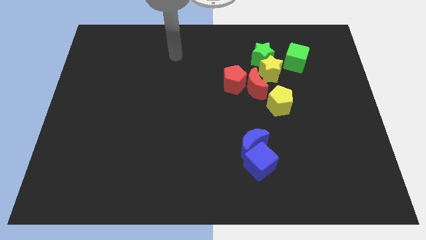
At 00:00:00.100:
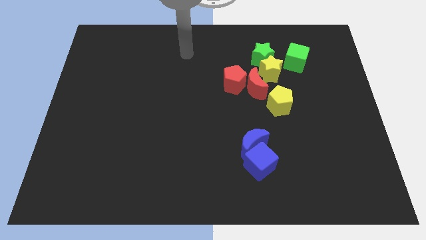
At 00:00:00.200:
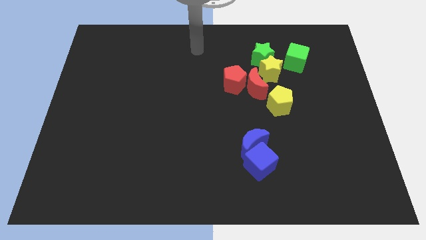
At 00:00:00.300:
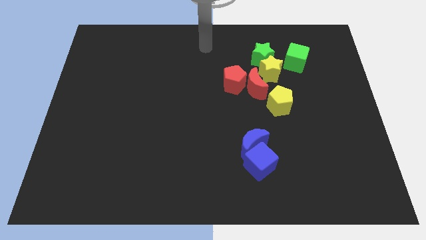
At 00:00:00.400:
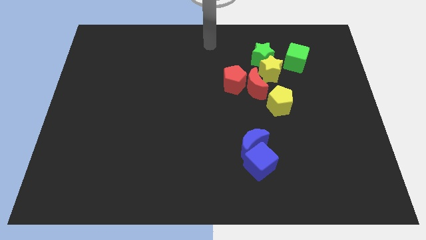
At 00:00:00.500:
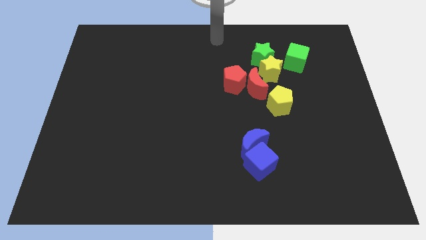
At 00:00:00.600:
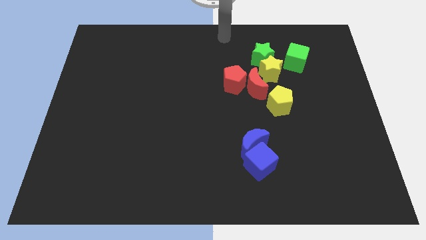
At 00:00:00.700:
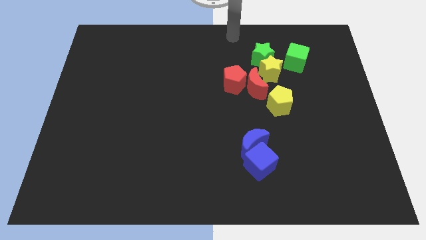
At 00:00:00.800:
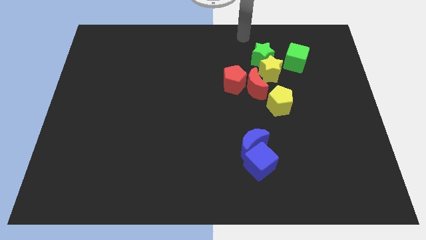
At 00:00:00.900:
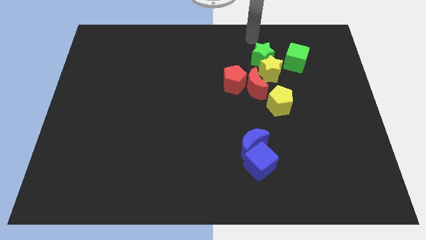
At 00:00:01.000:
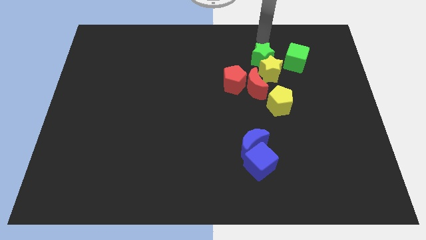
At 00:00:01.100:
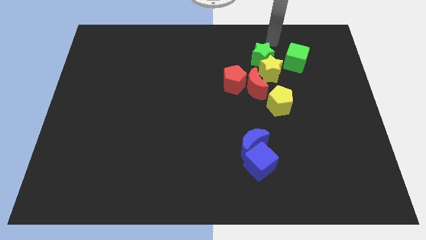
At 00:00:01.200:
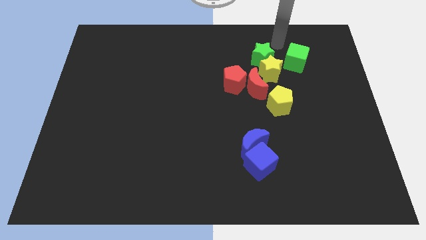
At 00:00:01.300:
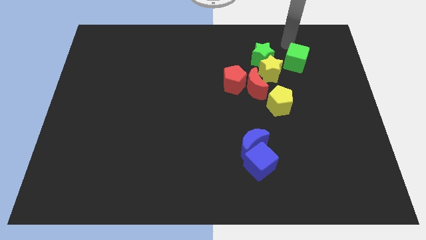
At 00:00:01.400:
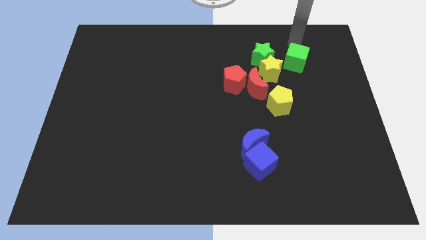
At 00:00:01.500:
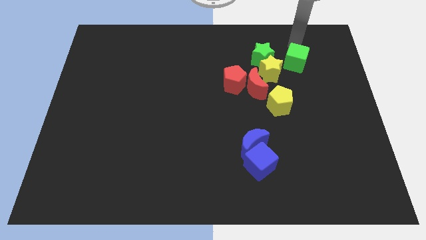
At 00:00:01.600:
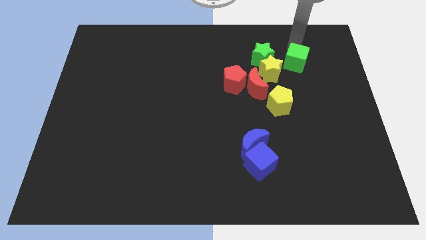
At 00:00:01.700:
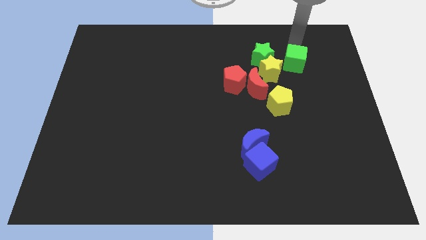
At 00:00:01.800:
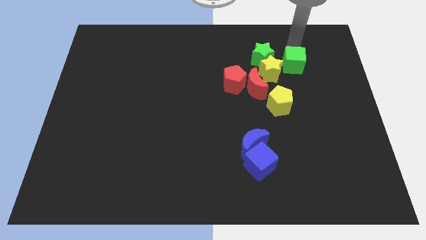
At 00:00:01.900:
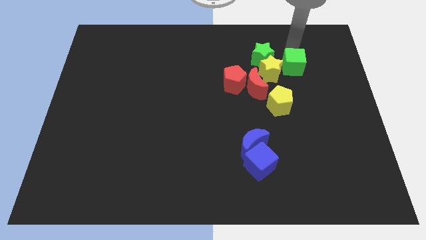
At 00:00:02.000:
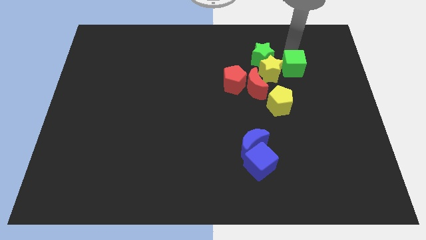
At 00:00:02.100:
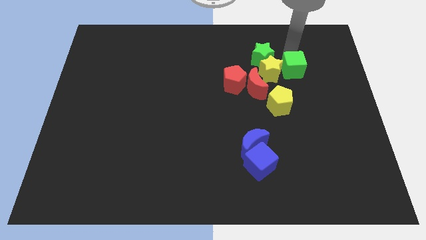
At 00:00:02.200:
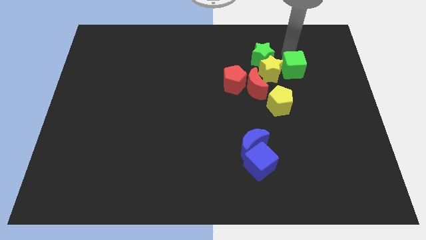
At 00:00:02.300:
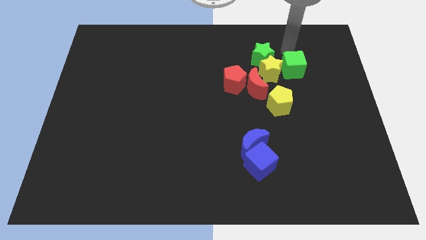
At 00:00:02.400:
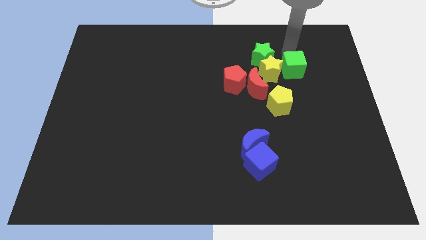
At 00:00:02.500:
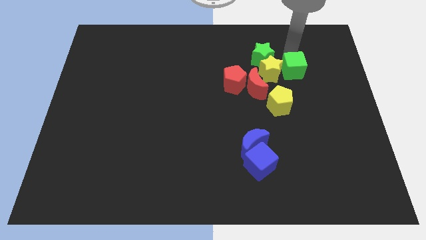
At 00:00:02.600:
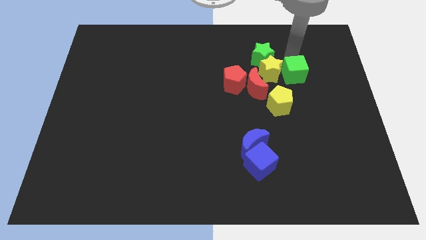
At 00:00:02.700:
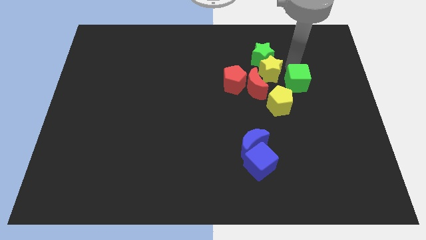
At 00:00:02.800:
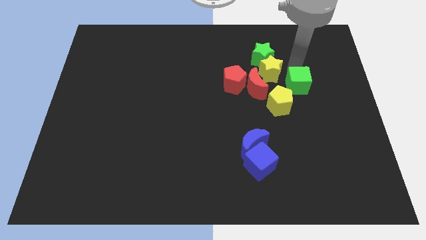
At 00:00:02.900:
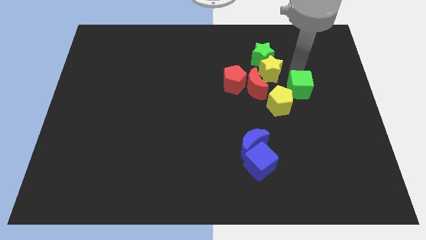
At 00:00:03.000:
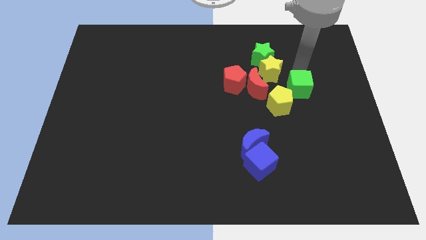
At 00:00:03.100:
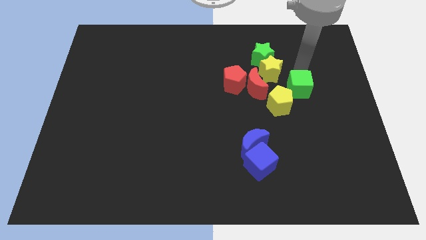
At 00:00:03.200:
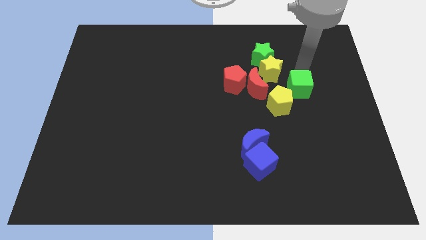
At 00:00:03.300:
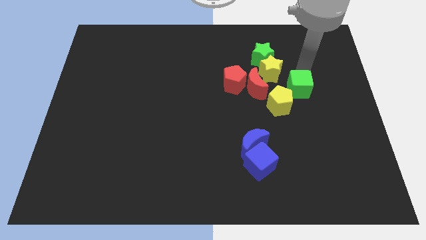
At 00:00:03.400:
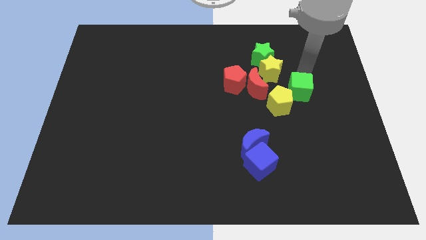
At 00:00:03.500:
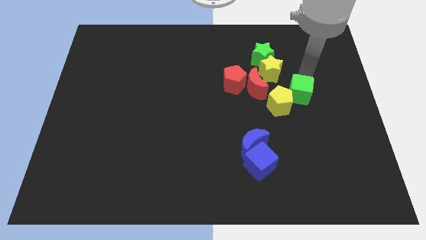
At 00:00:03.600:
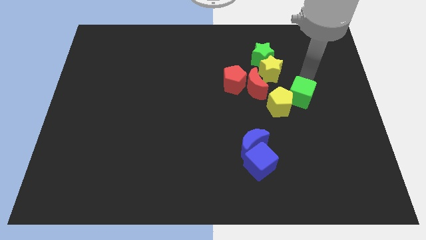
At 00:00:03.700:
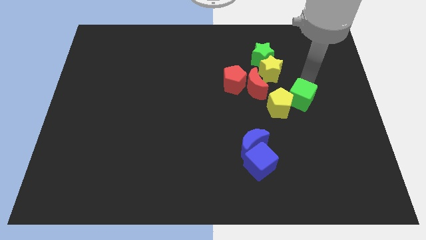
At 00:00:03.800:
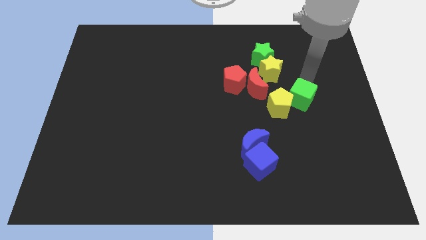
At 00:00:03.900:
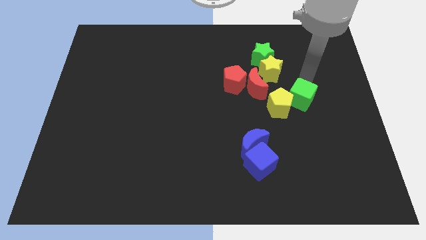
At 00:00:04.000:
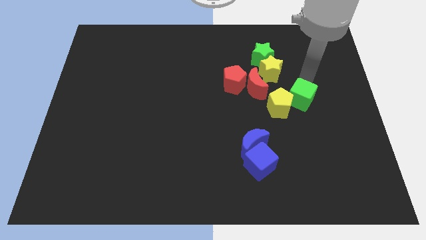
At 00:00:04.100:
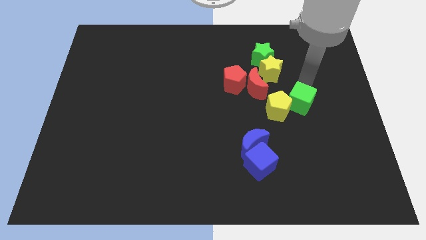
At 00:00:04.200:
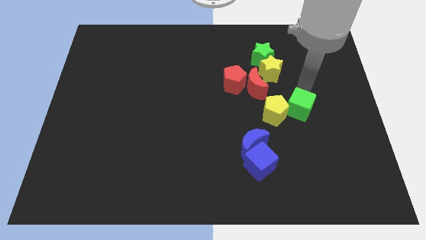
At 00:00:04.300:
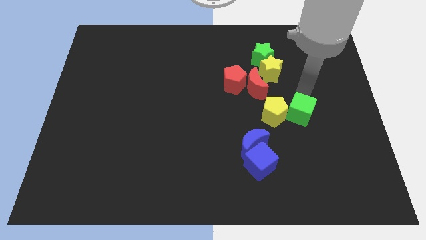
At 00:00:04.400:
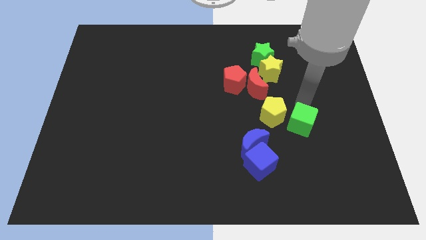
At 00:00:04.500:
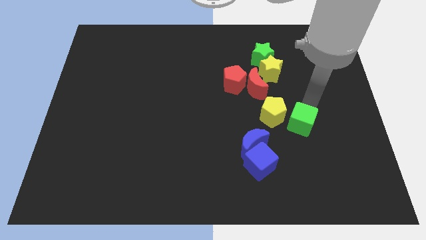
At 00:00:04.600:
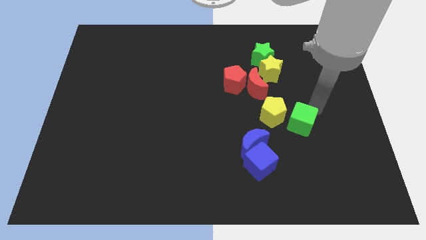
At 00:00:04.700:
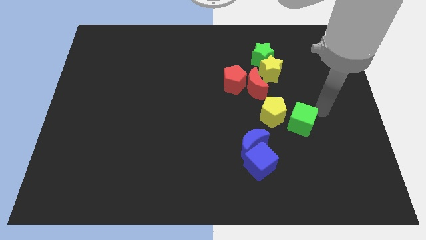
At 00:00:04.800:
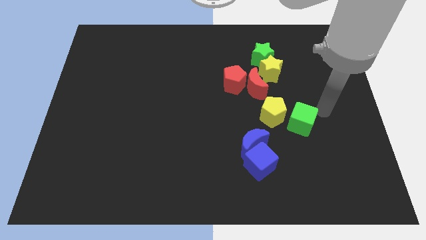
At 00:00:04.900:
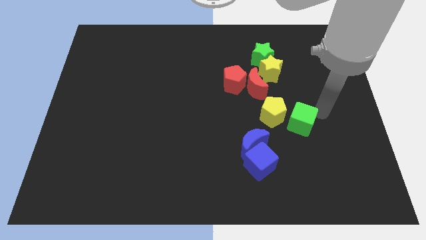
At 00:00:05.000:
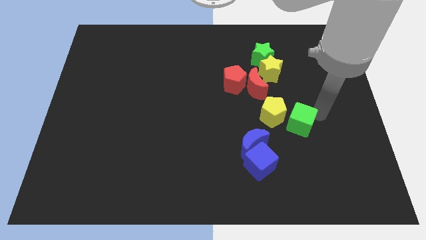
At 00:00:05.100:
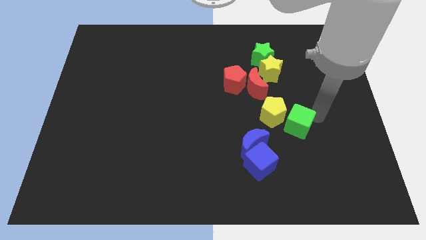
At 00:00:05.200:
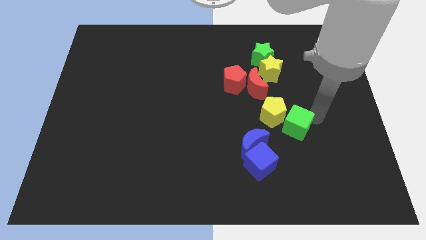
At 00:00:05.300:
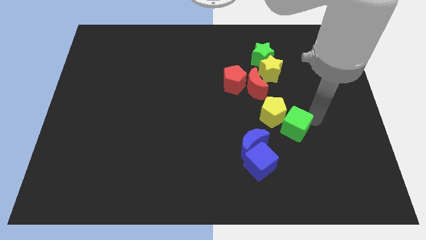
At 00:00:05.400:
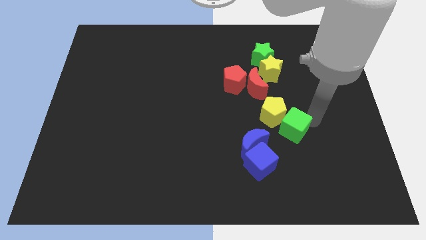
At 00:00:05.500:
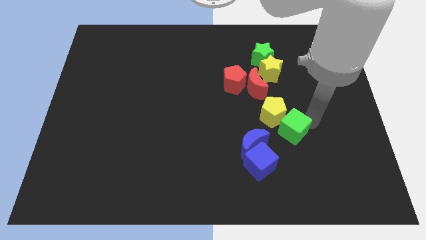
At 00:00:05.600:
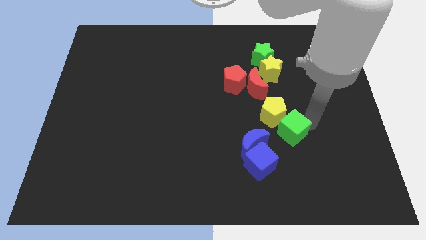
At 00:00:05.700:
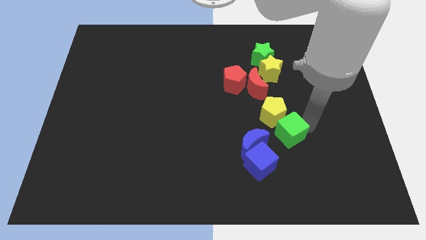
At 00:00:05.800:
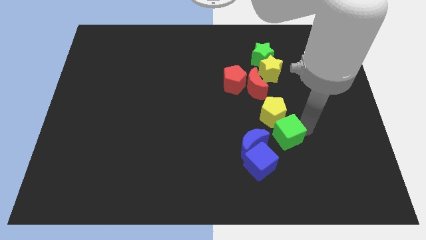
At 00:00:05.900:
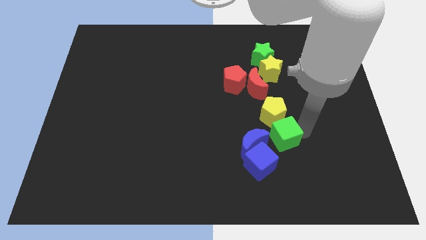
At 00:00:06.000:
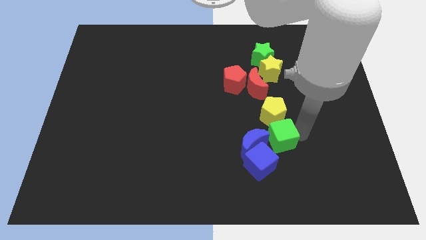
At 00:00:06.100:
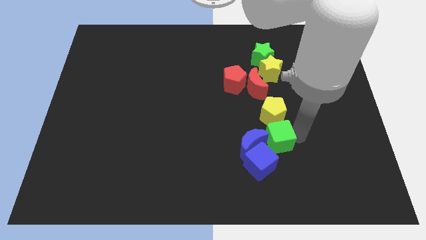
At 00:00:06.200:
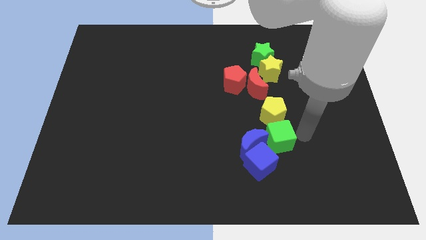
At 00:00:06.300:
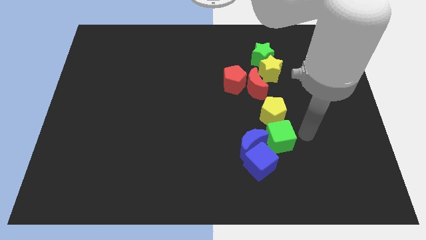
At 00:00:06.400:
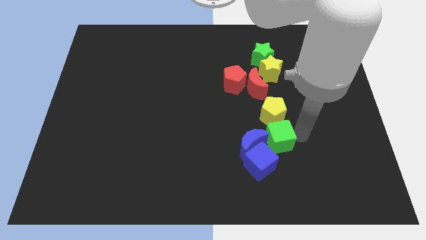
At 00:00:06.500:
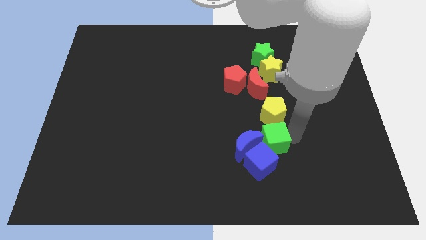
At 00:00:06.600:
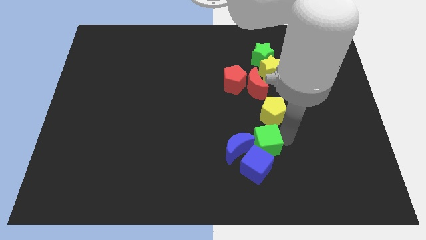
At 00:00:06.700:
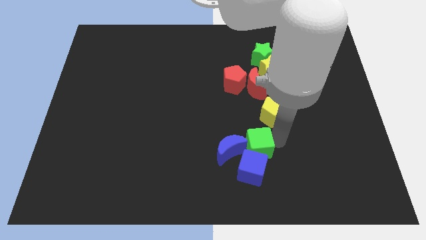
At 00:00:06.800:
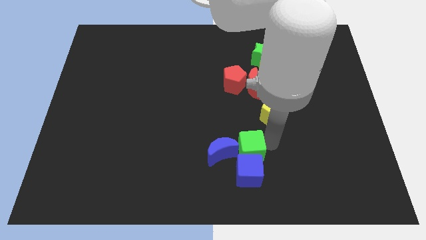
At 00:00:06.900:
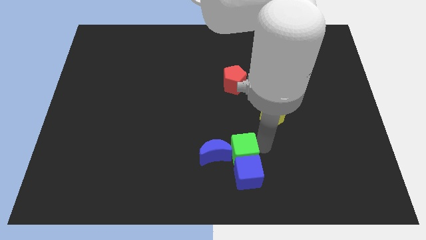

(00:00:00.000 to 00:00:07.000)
put the green cube towards the blue moon

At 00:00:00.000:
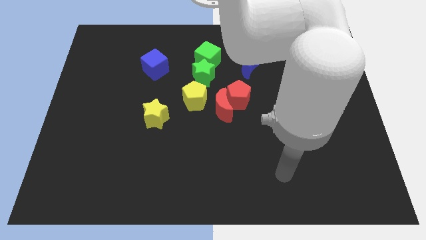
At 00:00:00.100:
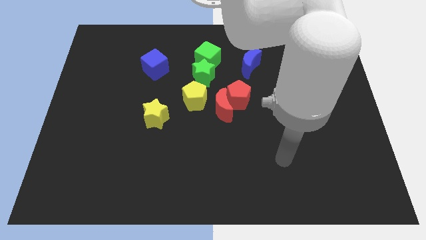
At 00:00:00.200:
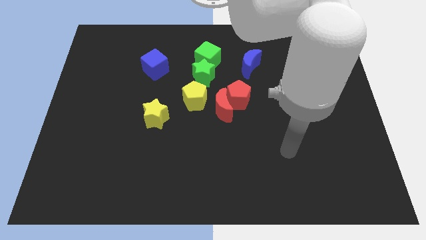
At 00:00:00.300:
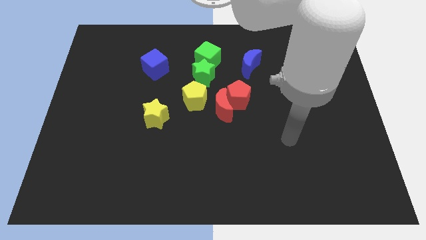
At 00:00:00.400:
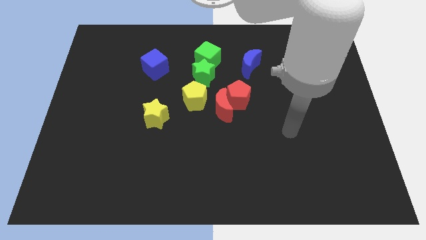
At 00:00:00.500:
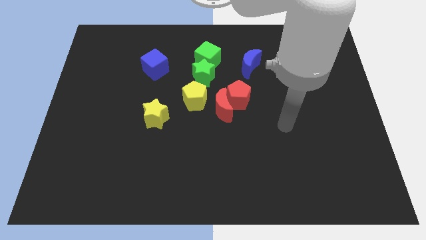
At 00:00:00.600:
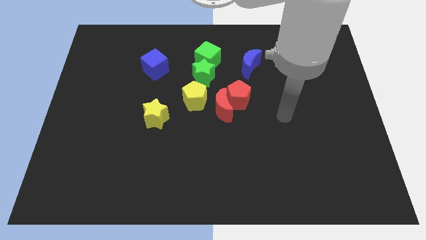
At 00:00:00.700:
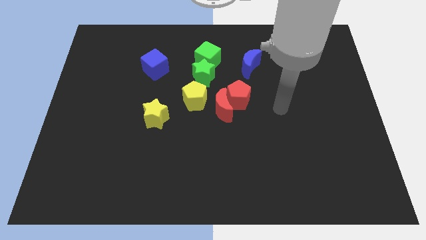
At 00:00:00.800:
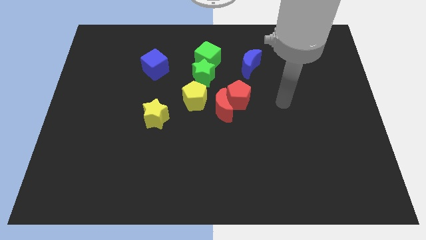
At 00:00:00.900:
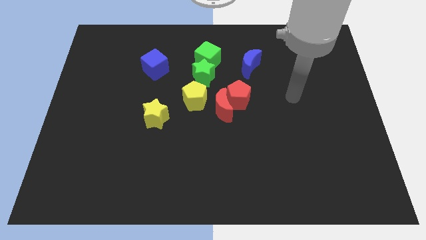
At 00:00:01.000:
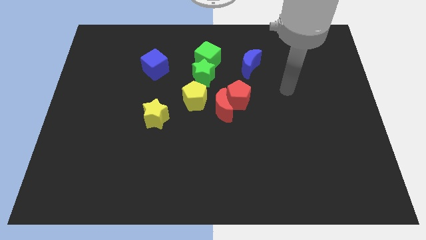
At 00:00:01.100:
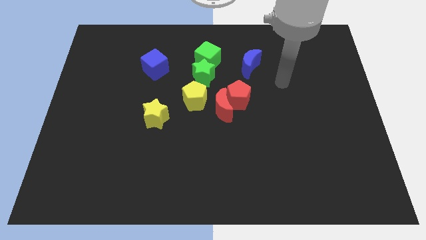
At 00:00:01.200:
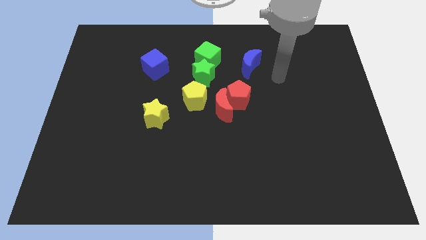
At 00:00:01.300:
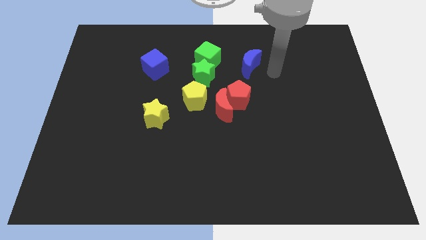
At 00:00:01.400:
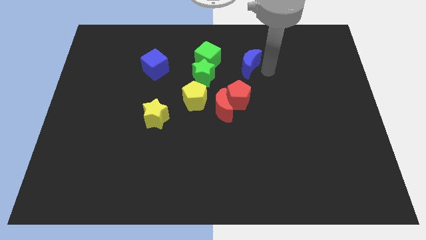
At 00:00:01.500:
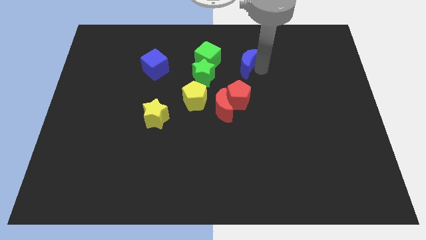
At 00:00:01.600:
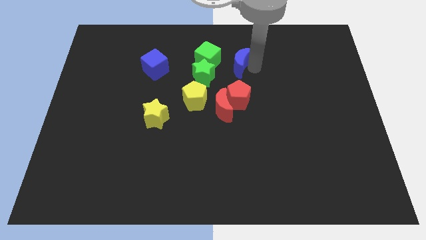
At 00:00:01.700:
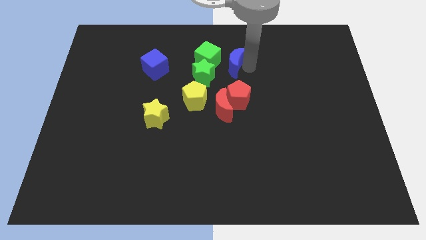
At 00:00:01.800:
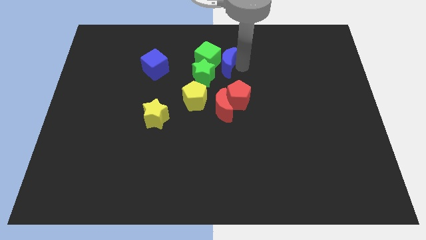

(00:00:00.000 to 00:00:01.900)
slide the blue moon towards the green cube
